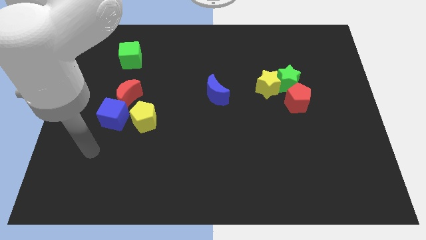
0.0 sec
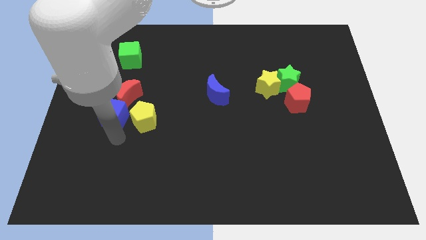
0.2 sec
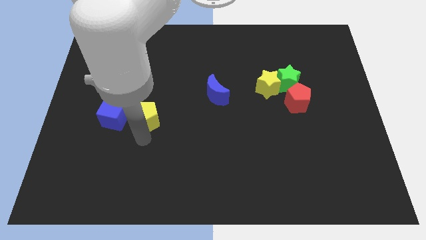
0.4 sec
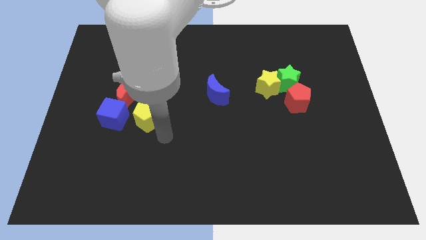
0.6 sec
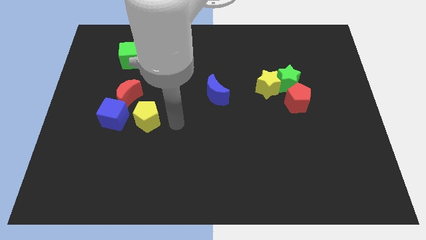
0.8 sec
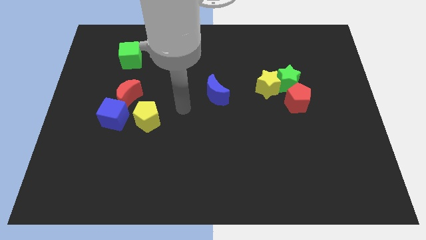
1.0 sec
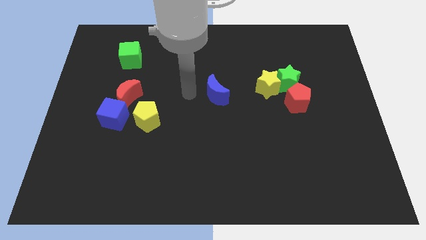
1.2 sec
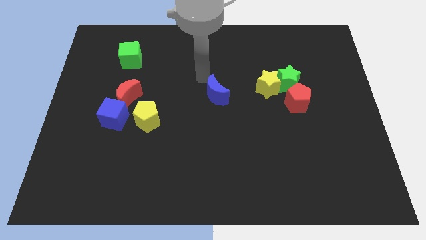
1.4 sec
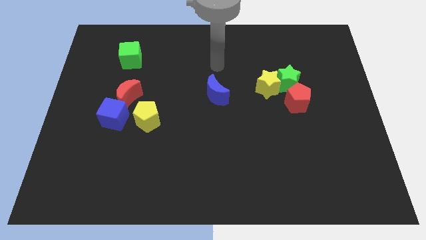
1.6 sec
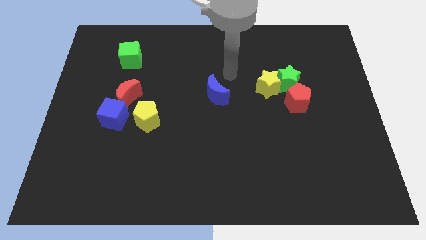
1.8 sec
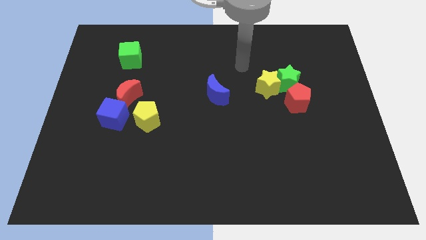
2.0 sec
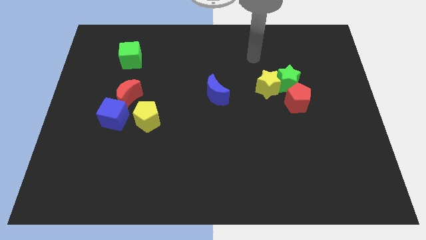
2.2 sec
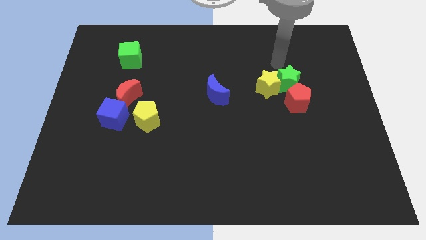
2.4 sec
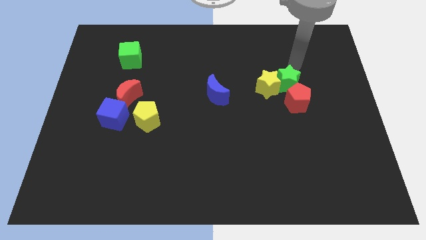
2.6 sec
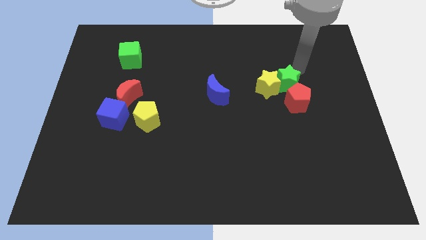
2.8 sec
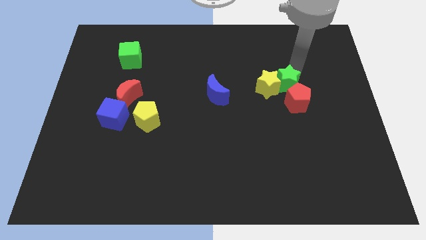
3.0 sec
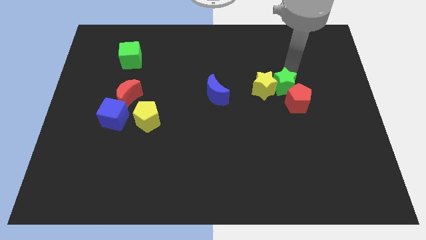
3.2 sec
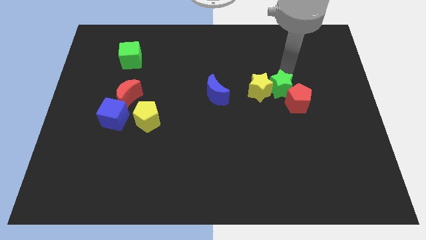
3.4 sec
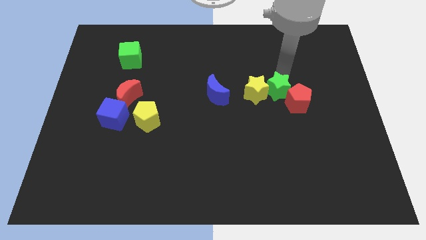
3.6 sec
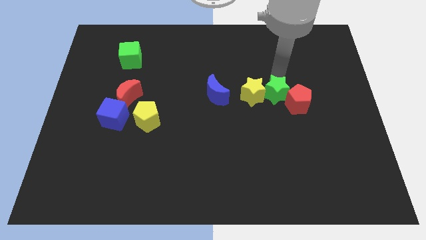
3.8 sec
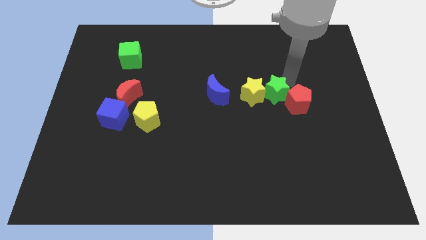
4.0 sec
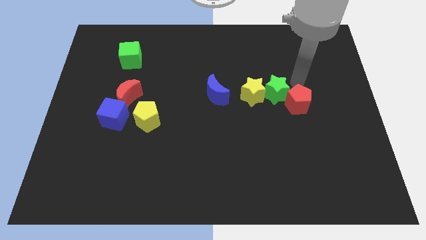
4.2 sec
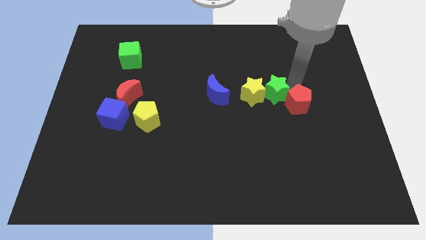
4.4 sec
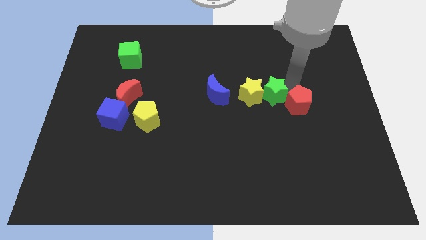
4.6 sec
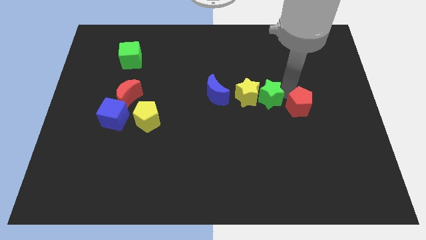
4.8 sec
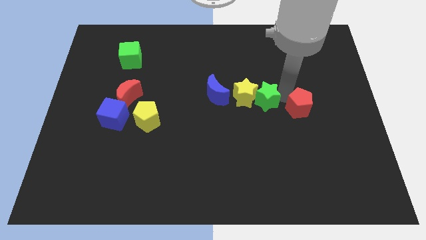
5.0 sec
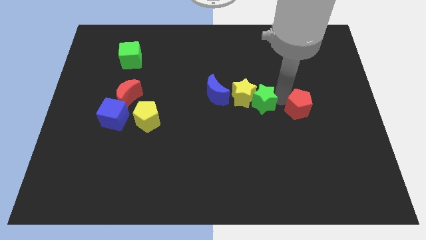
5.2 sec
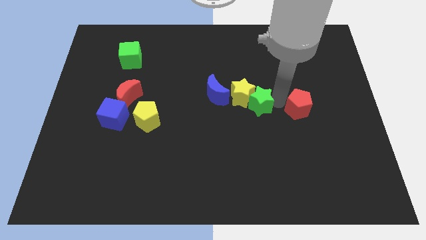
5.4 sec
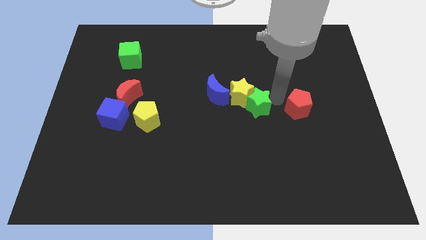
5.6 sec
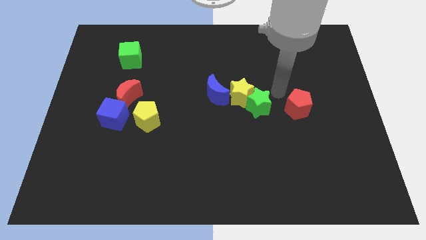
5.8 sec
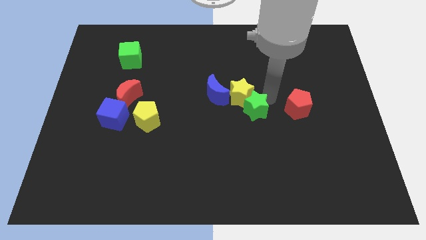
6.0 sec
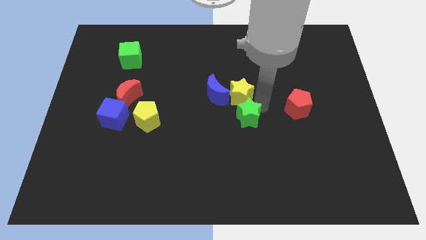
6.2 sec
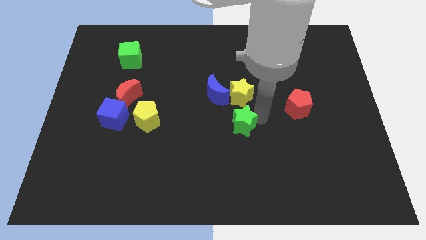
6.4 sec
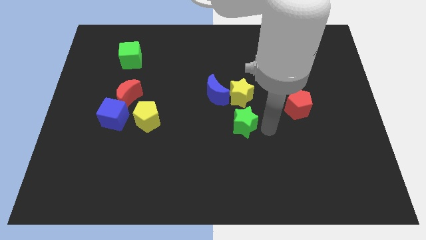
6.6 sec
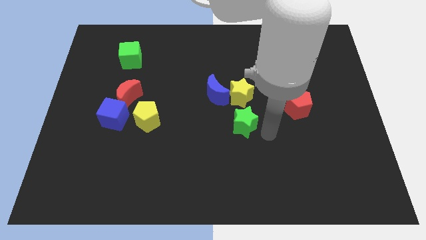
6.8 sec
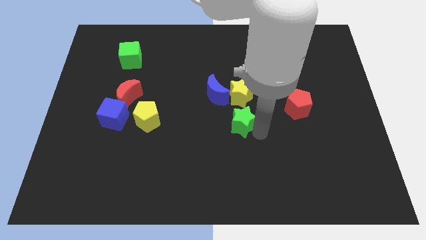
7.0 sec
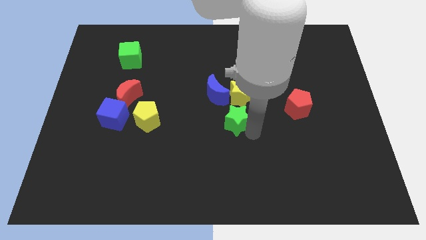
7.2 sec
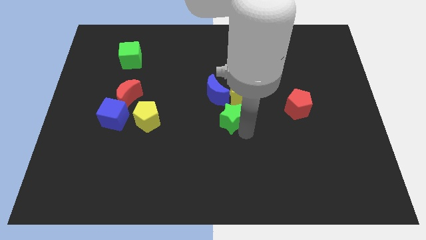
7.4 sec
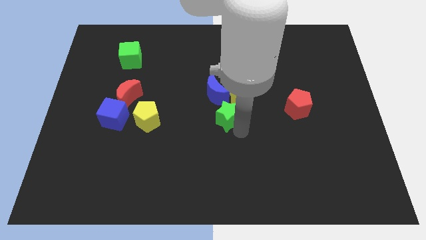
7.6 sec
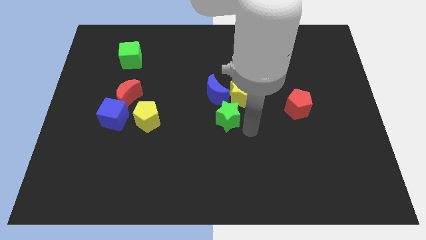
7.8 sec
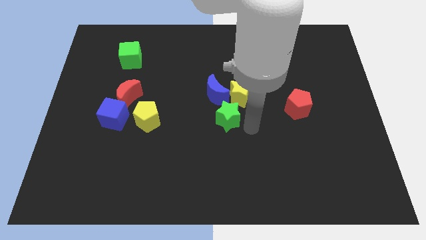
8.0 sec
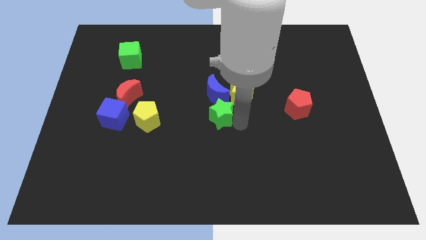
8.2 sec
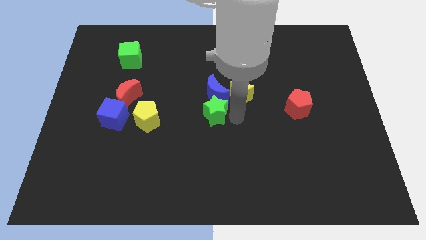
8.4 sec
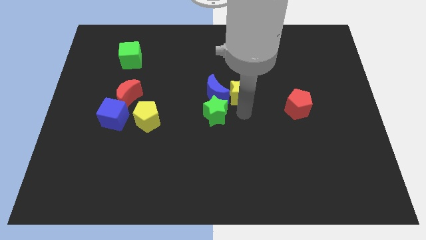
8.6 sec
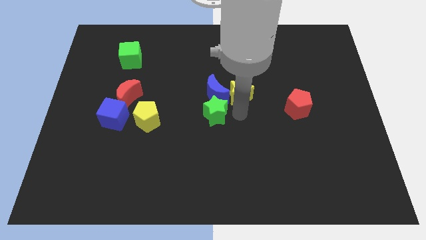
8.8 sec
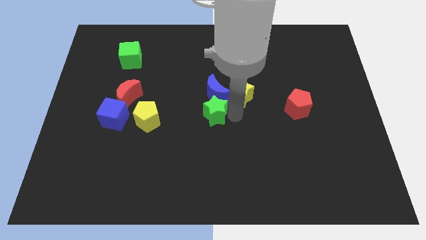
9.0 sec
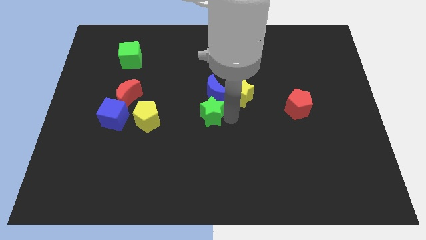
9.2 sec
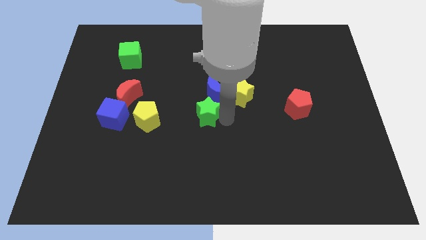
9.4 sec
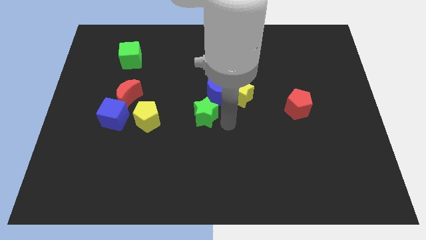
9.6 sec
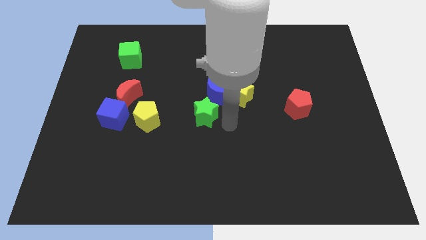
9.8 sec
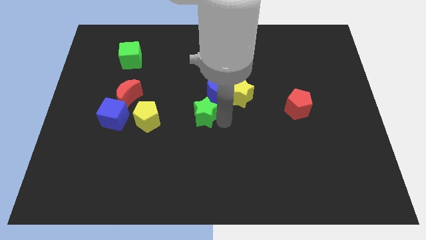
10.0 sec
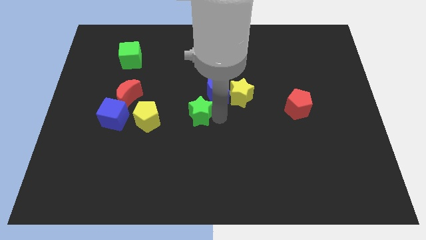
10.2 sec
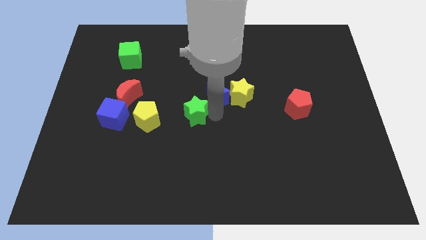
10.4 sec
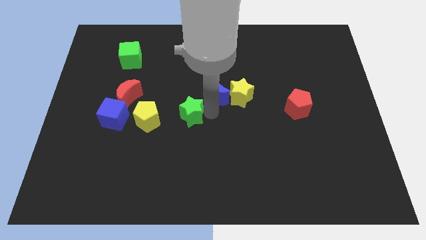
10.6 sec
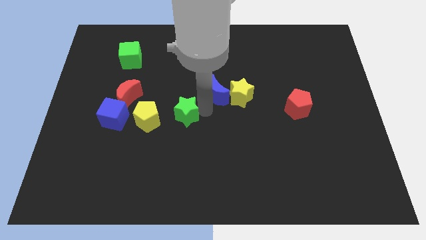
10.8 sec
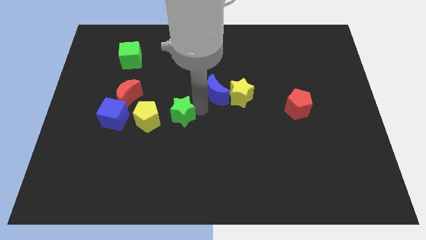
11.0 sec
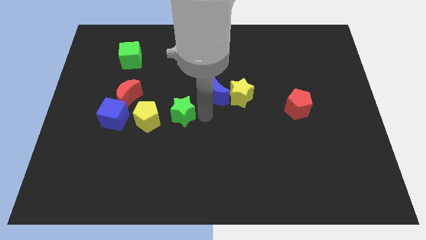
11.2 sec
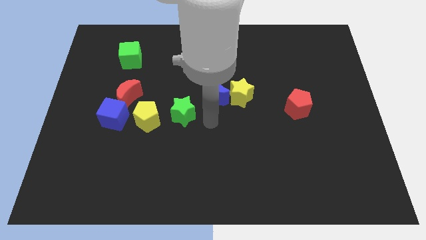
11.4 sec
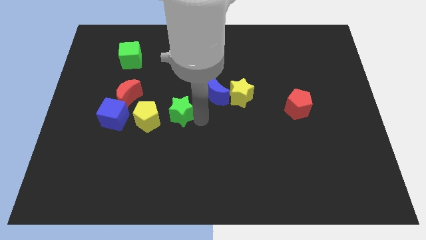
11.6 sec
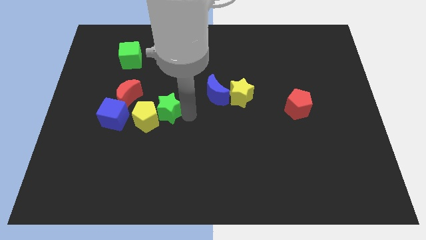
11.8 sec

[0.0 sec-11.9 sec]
put the green star towards the yellow pentagon

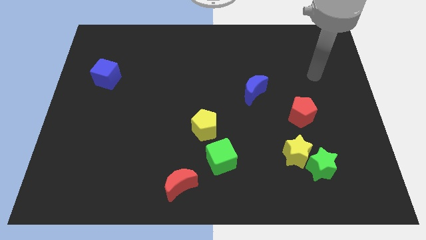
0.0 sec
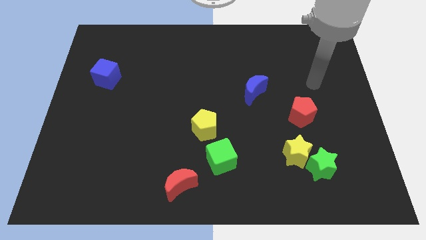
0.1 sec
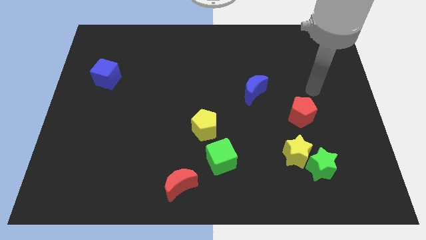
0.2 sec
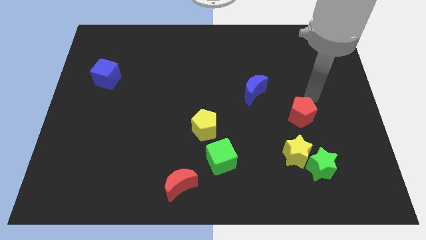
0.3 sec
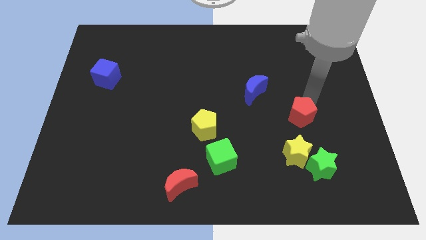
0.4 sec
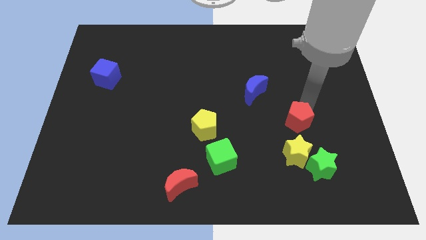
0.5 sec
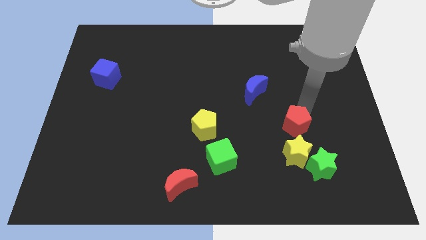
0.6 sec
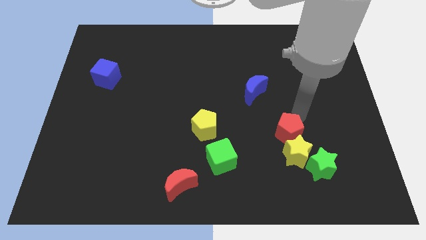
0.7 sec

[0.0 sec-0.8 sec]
move the red pentagon towards the yellow star

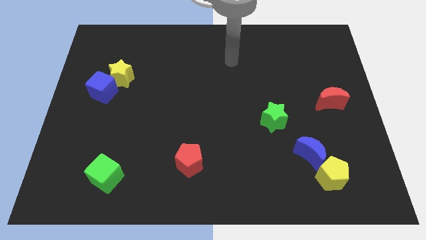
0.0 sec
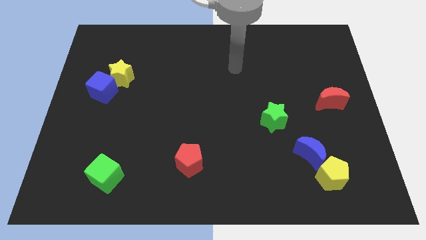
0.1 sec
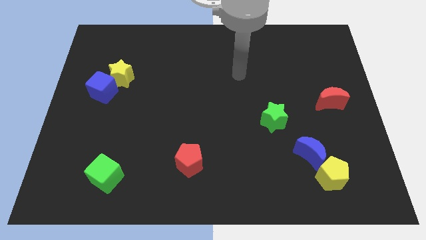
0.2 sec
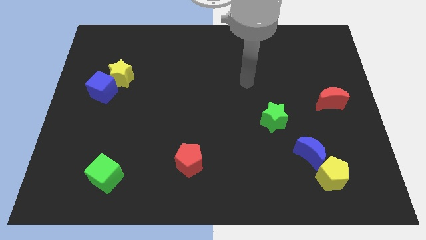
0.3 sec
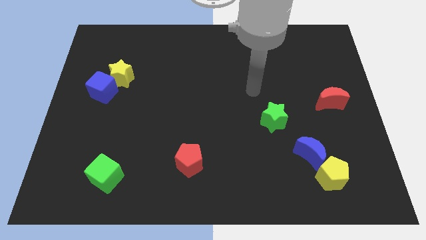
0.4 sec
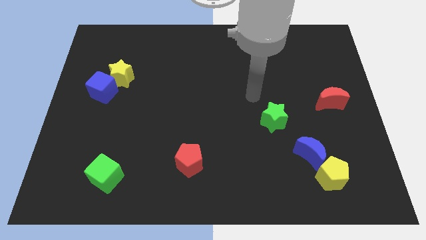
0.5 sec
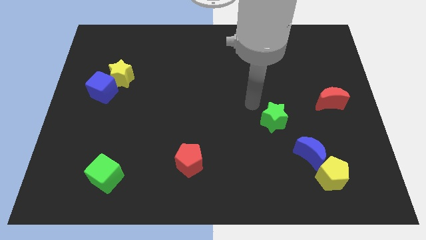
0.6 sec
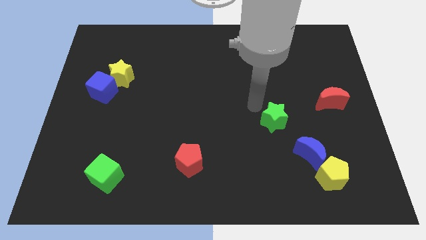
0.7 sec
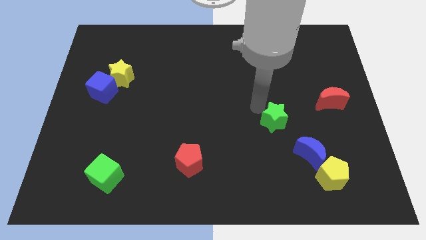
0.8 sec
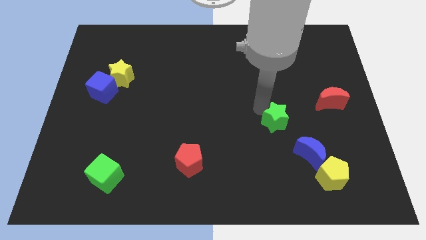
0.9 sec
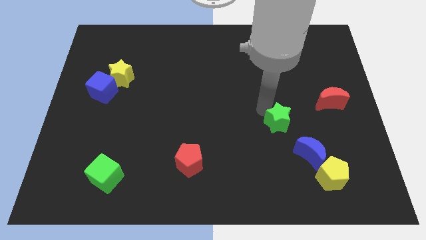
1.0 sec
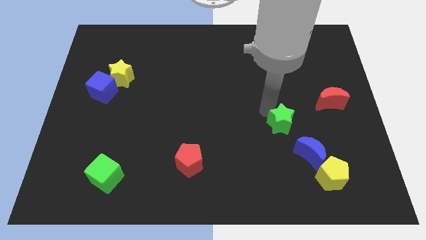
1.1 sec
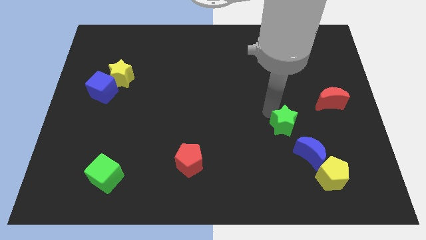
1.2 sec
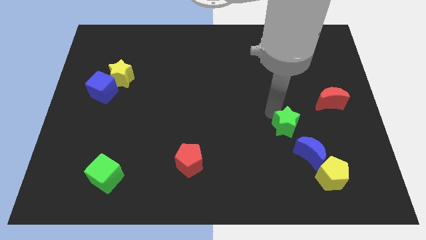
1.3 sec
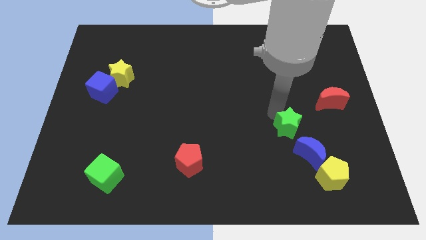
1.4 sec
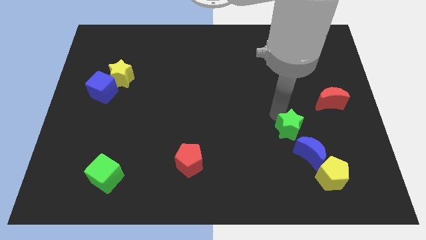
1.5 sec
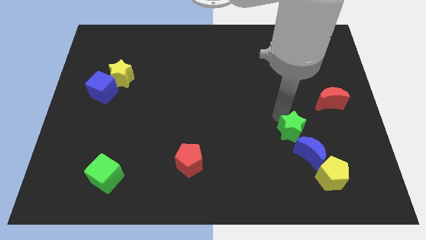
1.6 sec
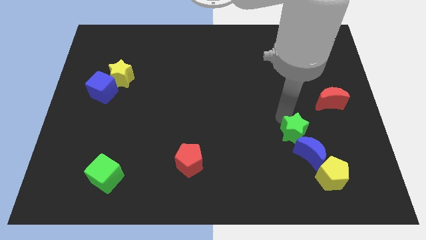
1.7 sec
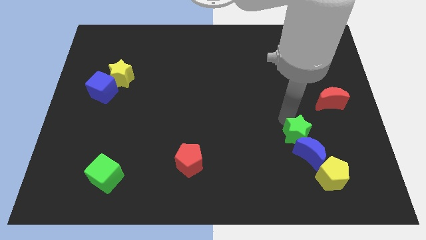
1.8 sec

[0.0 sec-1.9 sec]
push the green star close to the blue moon
